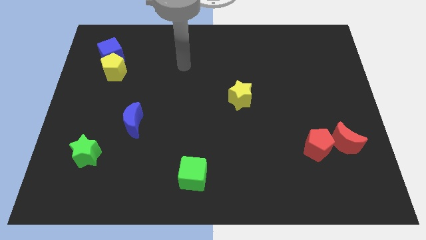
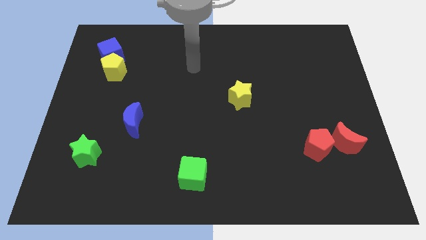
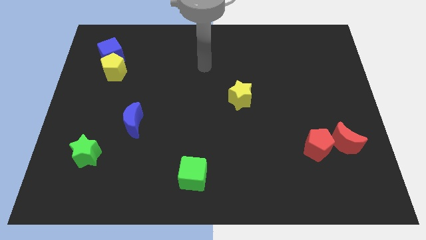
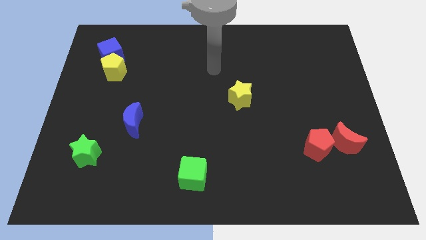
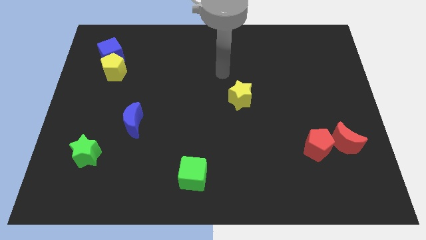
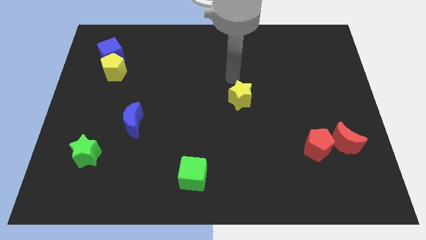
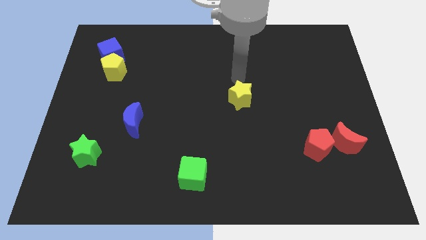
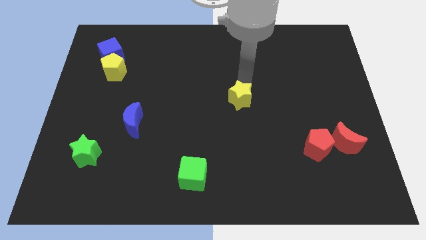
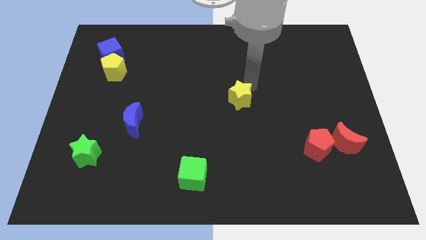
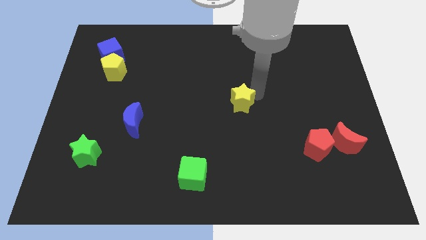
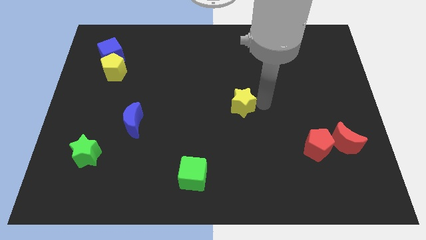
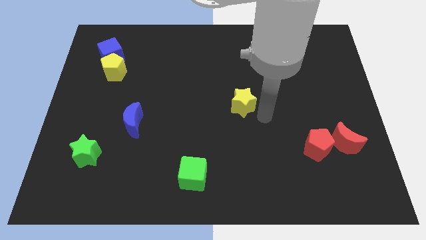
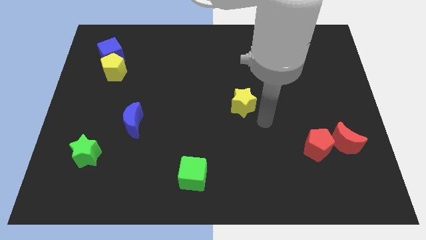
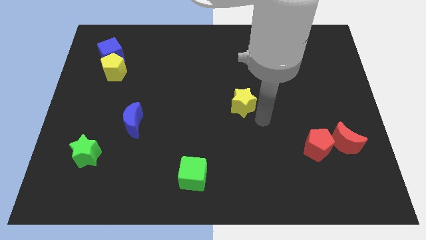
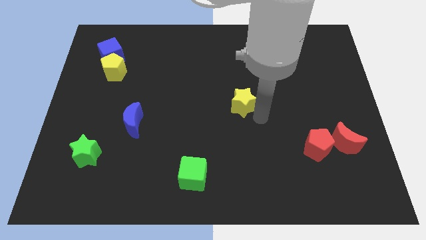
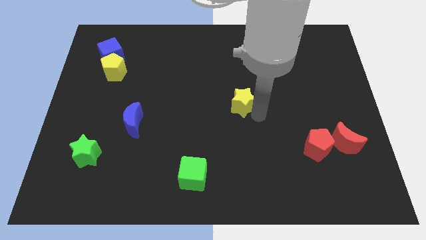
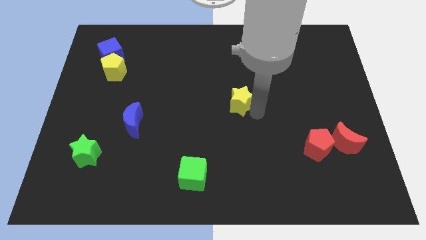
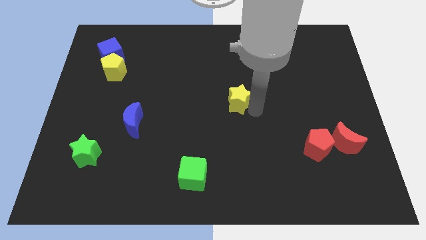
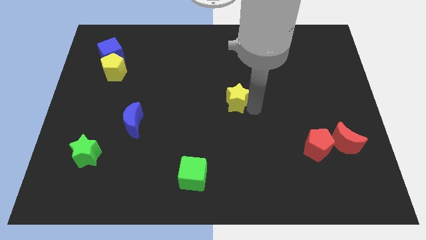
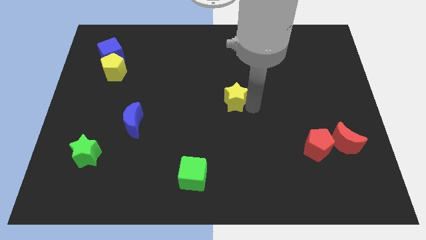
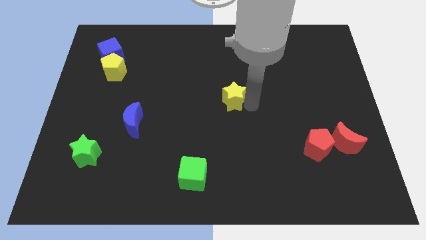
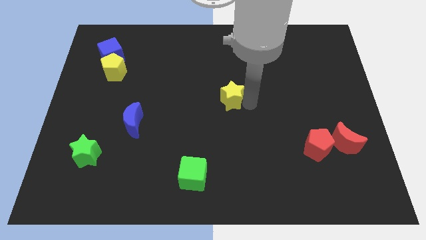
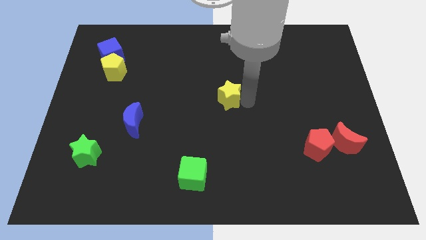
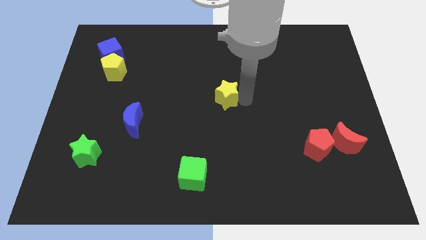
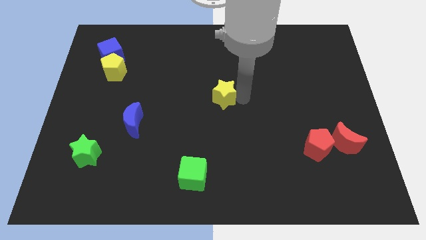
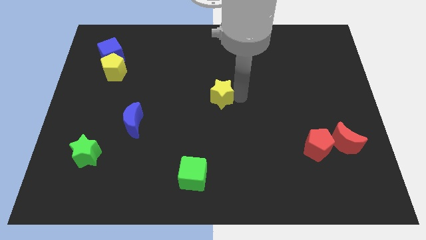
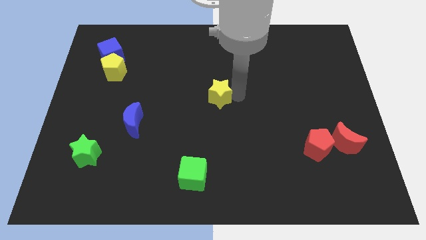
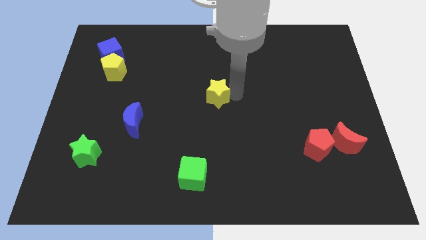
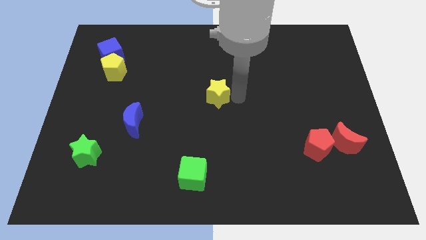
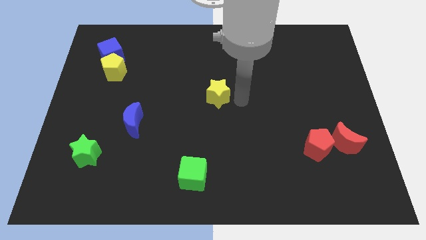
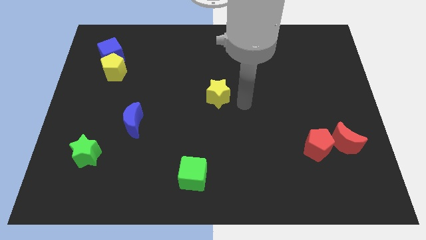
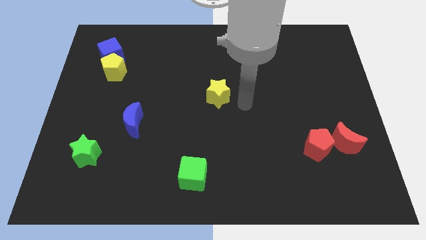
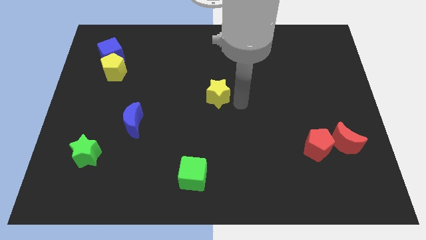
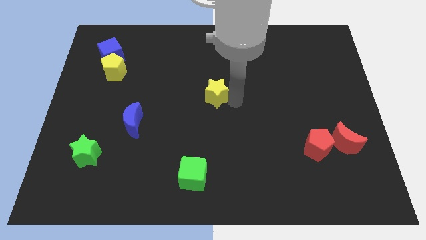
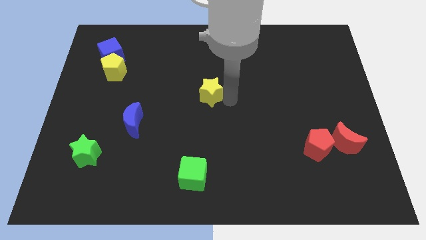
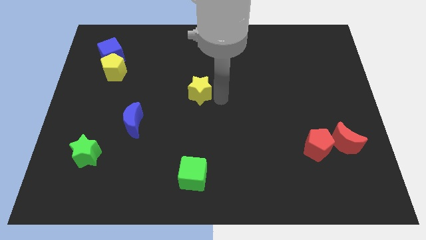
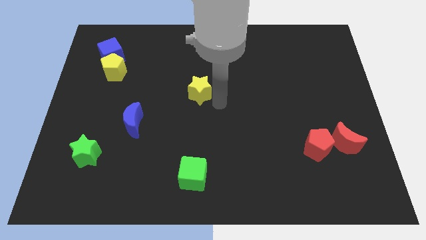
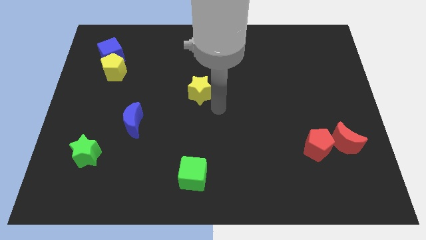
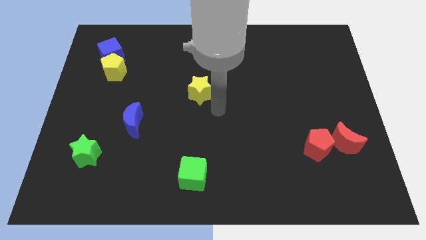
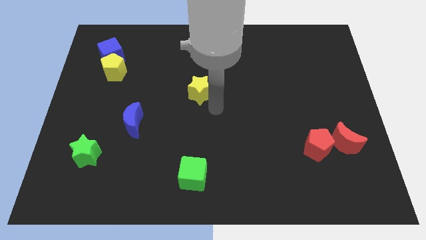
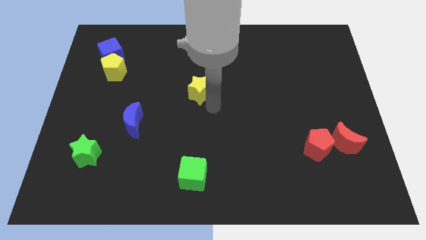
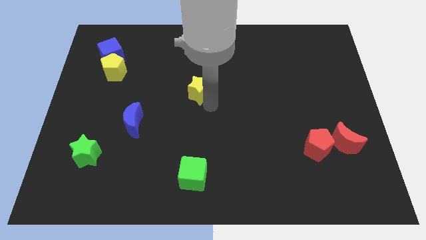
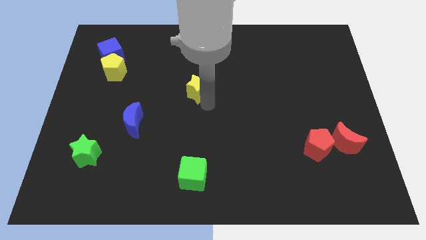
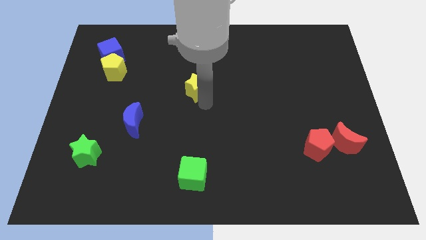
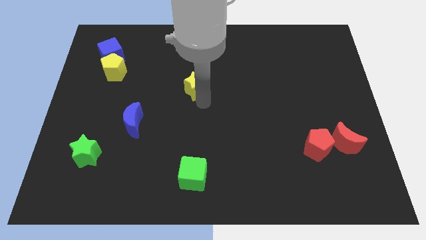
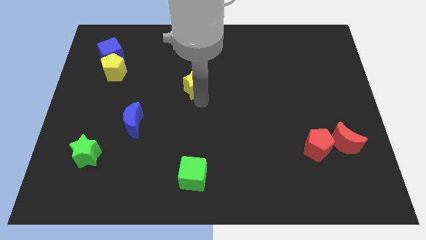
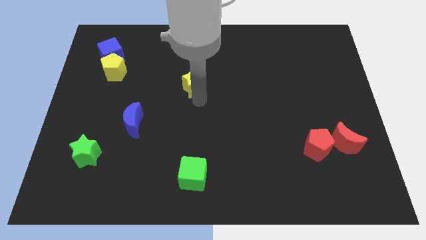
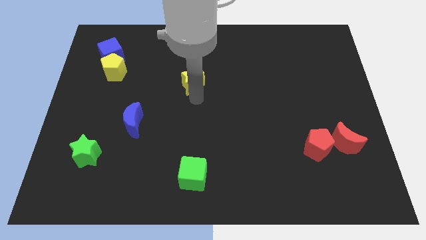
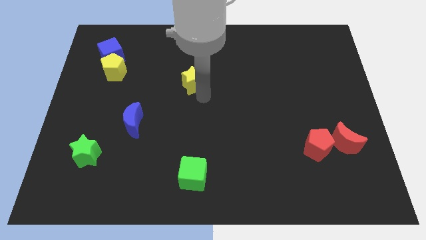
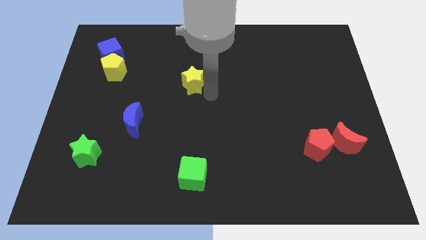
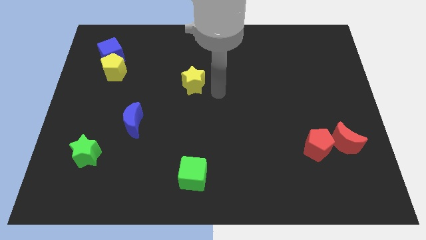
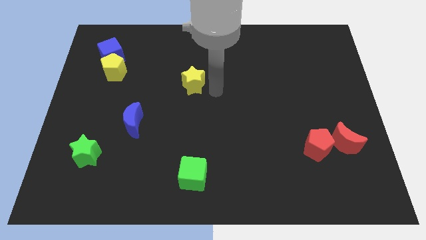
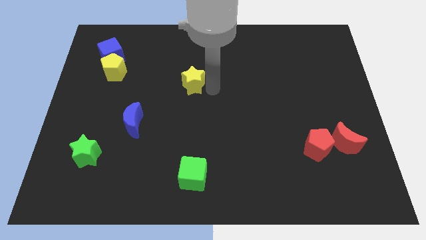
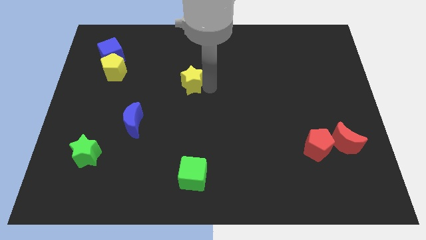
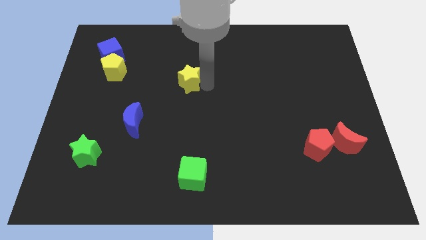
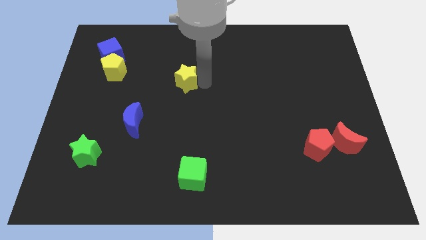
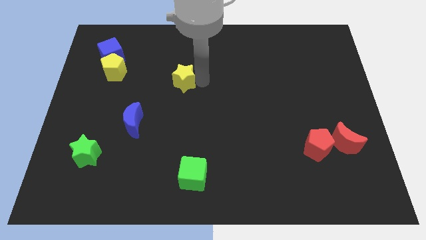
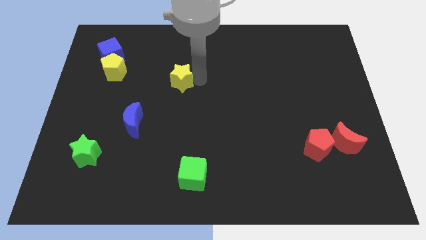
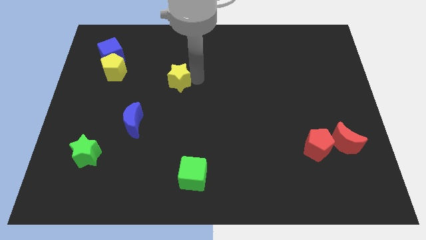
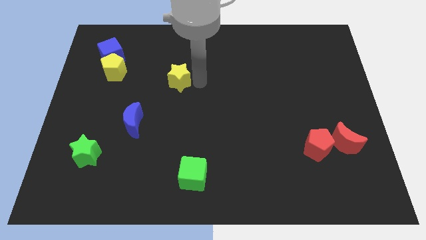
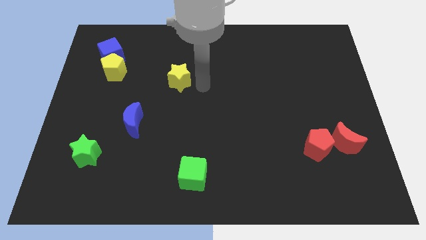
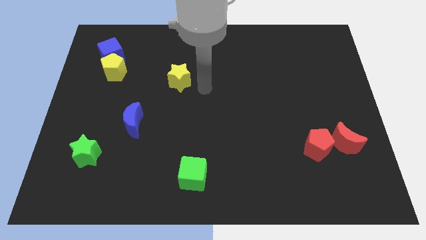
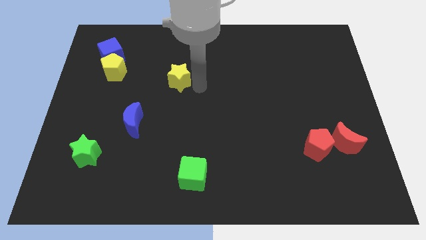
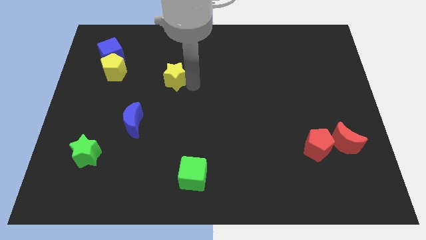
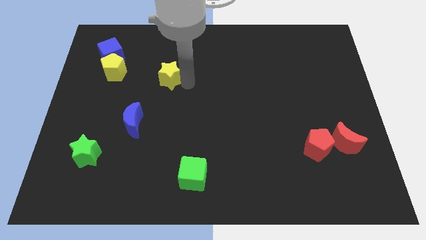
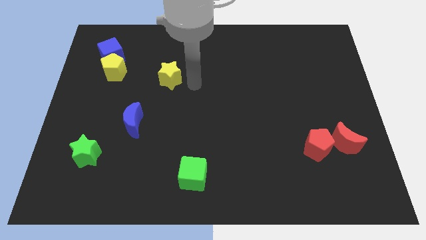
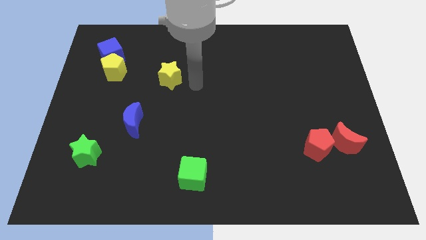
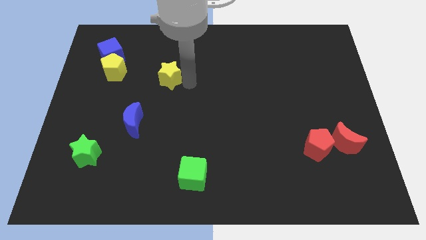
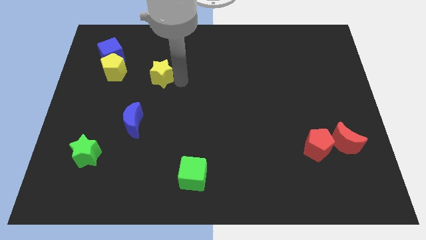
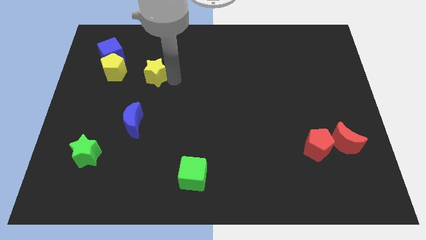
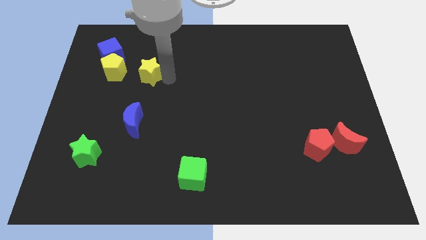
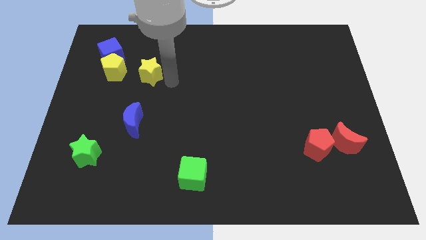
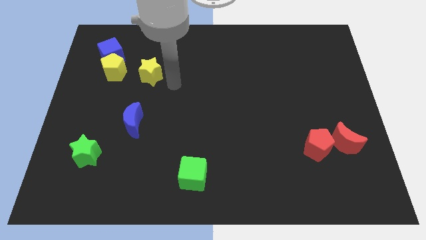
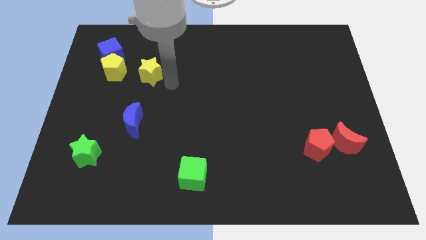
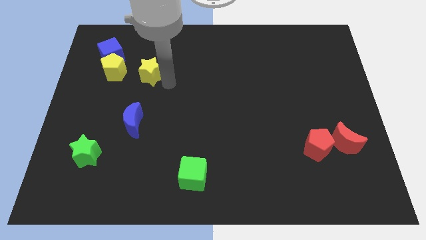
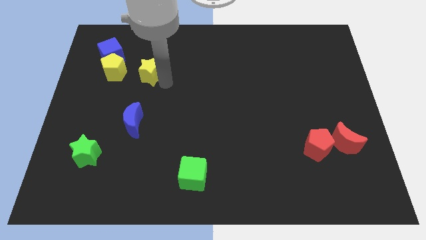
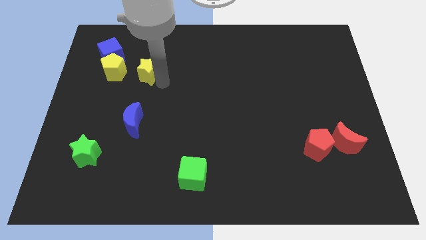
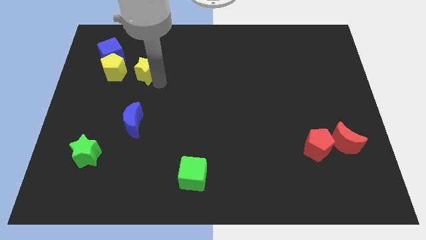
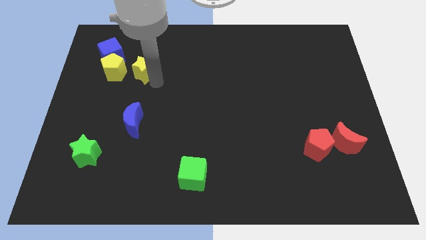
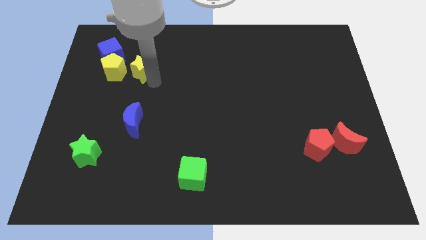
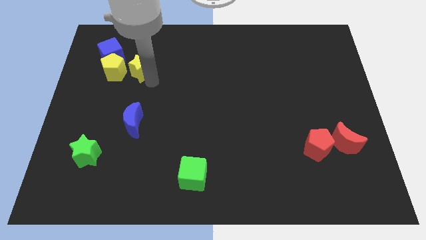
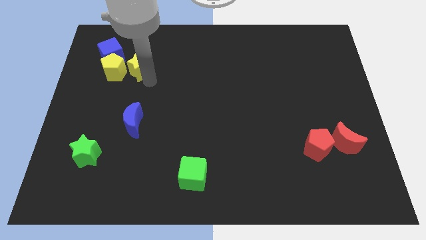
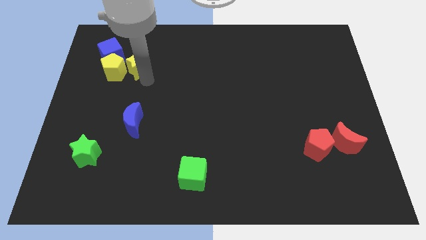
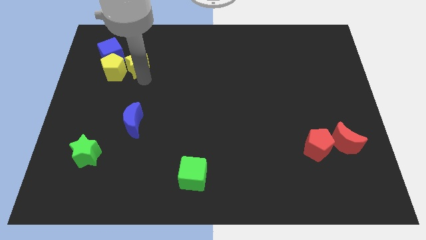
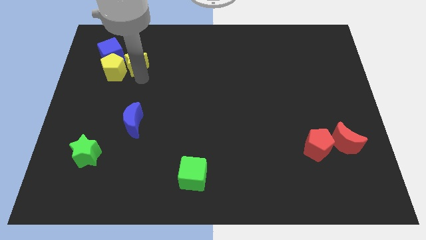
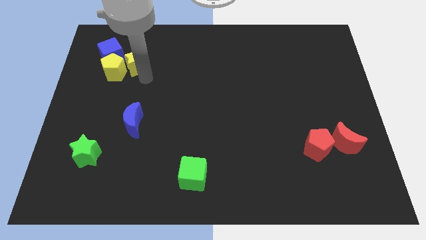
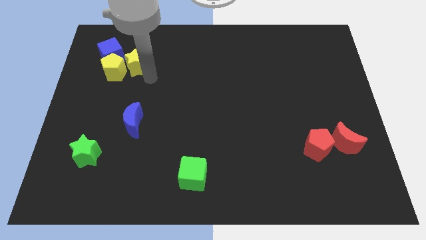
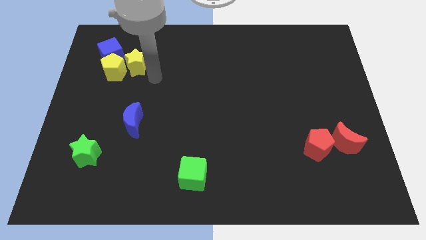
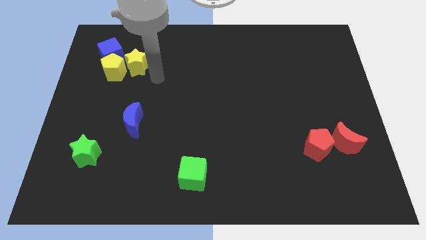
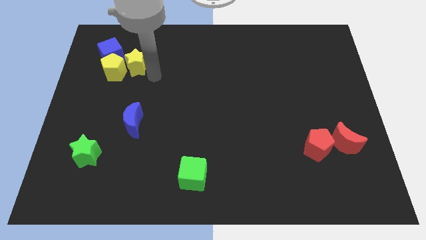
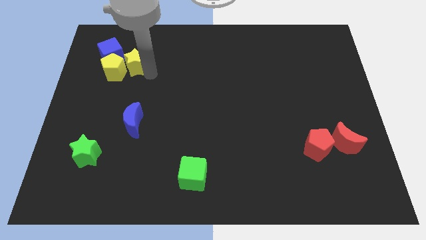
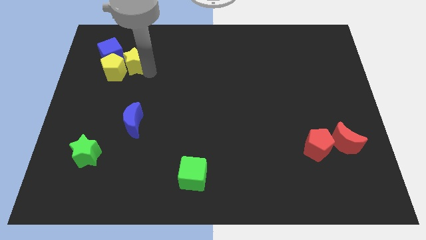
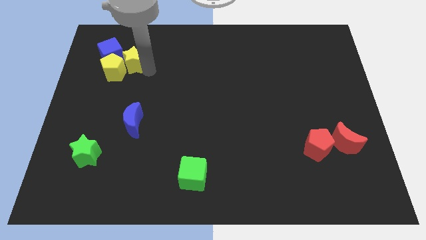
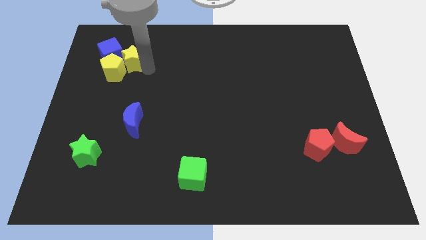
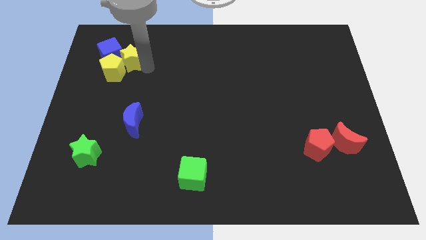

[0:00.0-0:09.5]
move the yellow star to the blue cube
